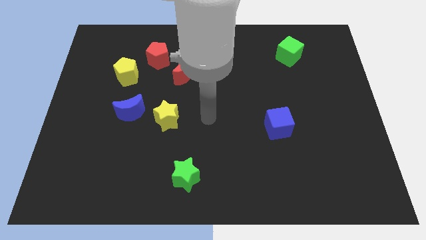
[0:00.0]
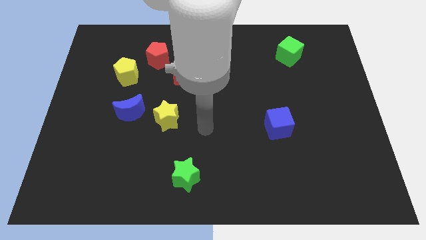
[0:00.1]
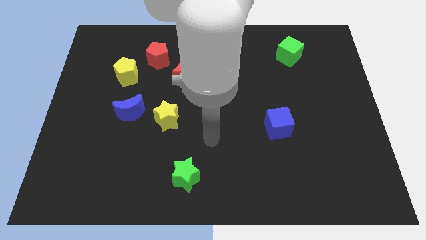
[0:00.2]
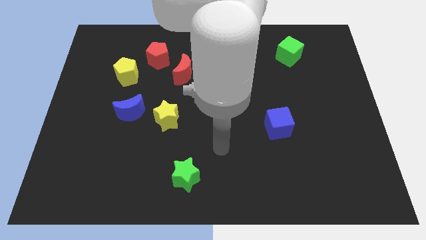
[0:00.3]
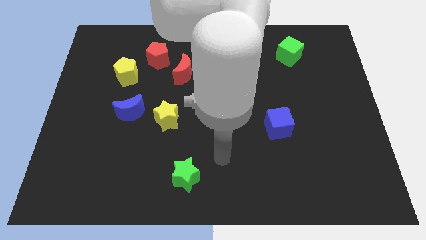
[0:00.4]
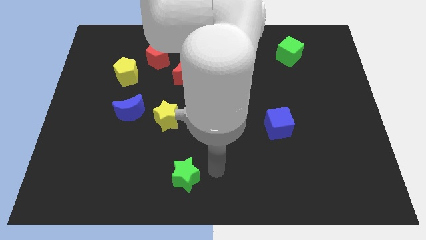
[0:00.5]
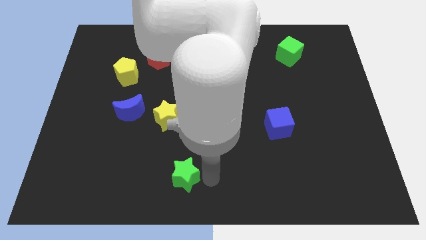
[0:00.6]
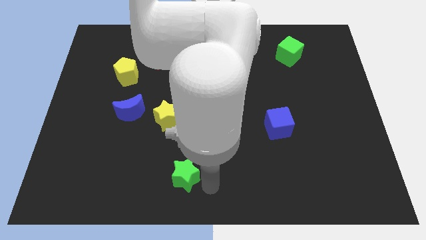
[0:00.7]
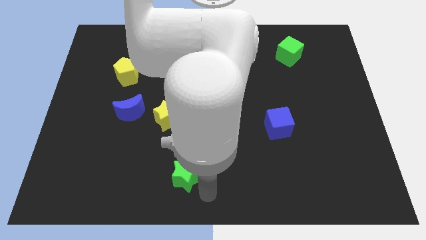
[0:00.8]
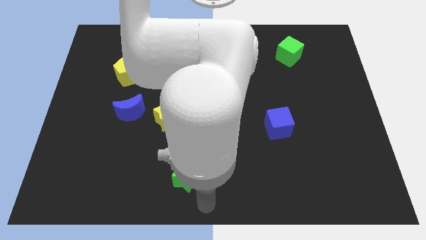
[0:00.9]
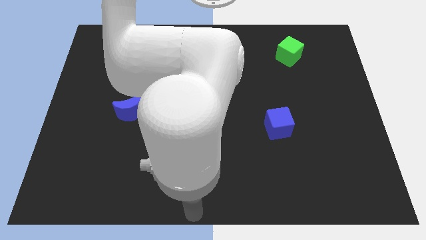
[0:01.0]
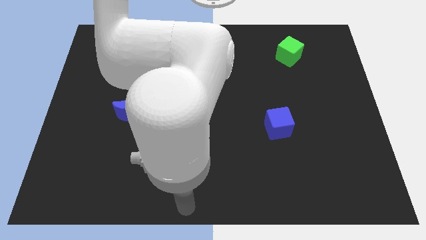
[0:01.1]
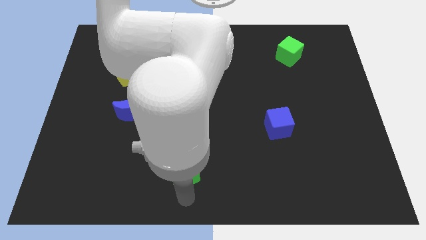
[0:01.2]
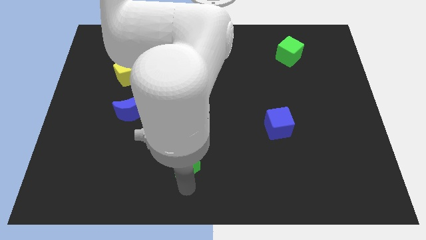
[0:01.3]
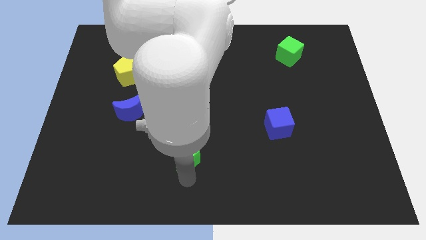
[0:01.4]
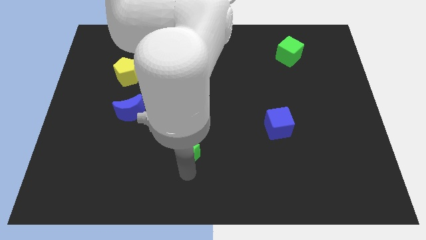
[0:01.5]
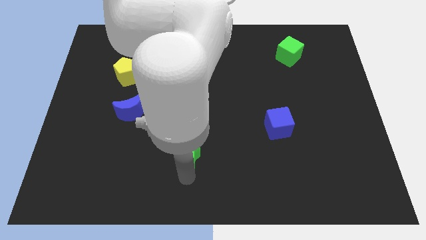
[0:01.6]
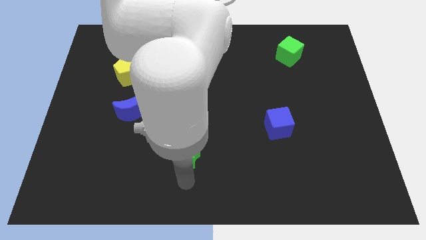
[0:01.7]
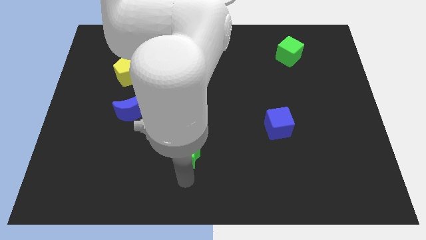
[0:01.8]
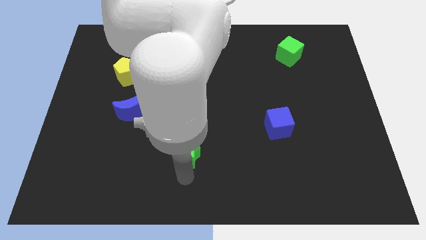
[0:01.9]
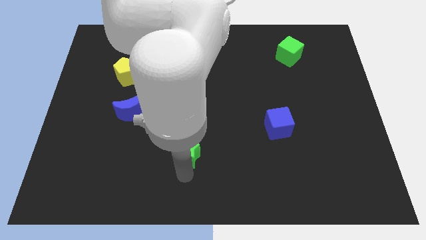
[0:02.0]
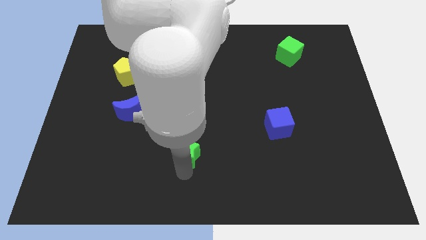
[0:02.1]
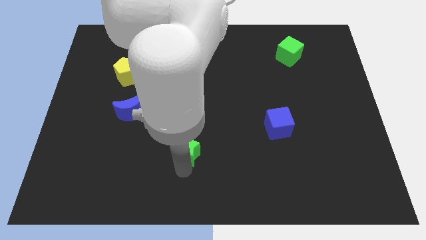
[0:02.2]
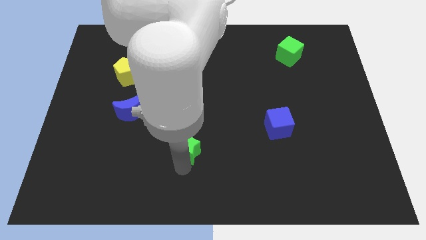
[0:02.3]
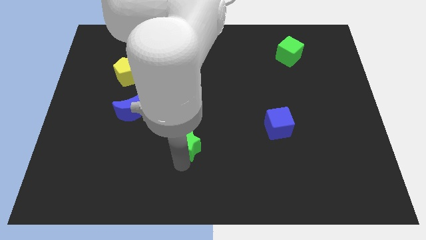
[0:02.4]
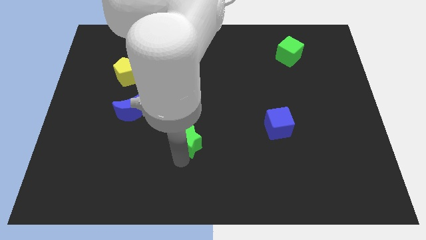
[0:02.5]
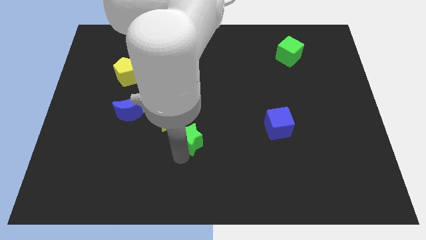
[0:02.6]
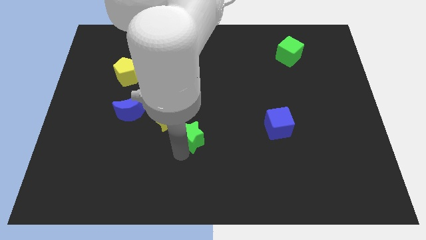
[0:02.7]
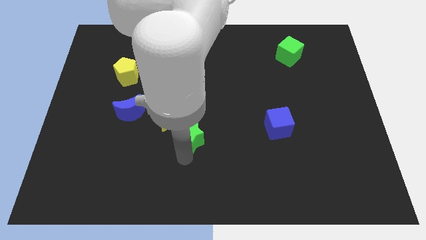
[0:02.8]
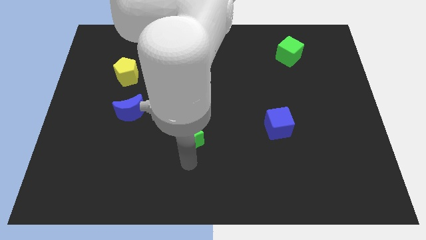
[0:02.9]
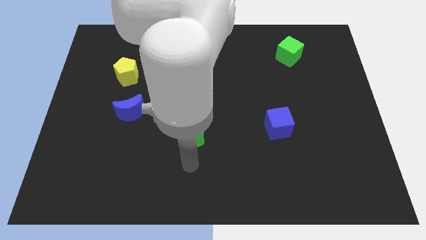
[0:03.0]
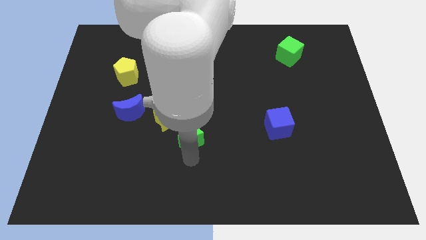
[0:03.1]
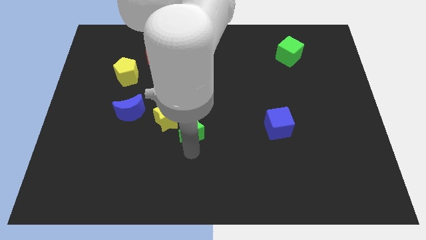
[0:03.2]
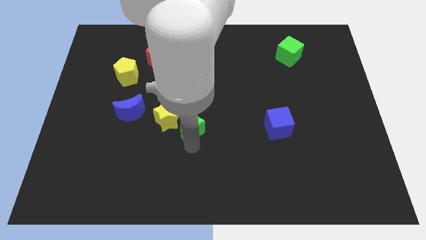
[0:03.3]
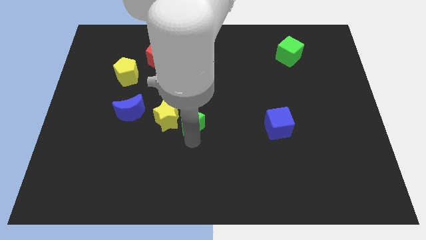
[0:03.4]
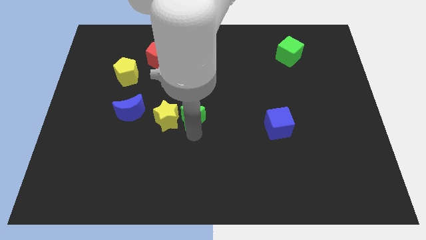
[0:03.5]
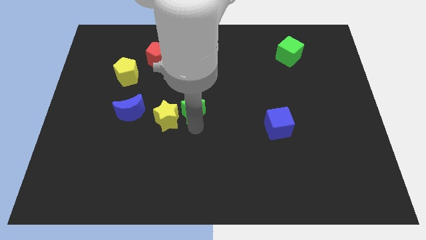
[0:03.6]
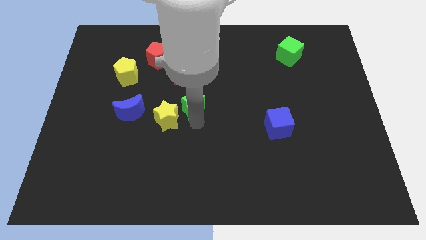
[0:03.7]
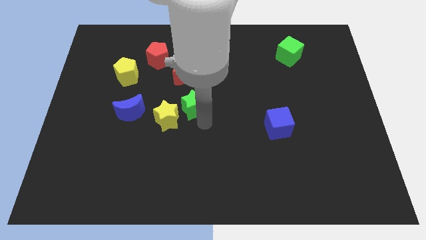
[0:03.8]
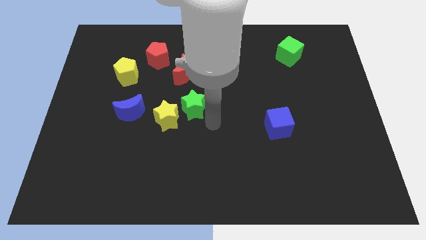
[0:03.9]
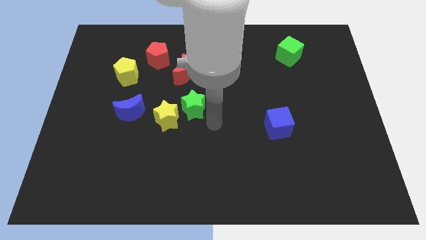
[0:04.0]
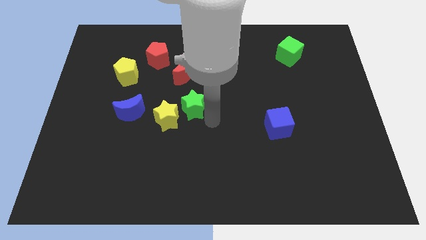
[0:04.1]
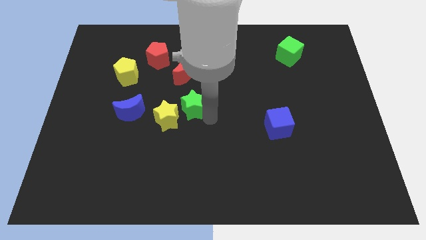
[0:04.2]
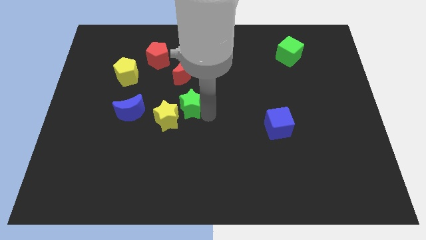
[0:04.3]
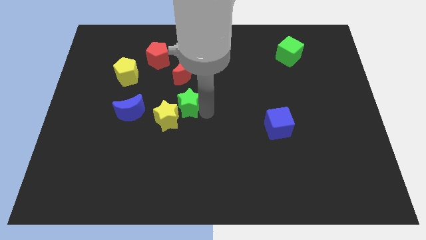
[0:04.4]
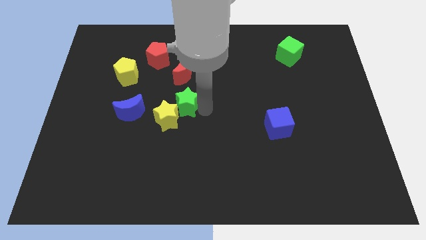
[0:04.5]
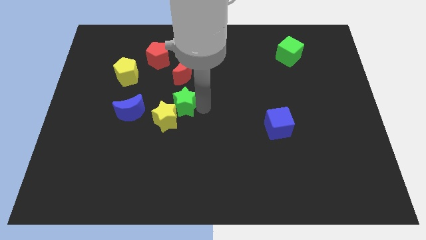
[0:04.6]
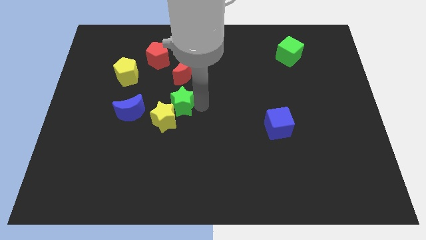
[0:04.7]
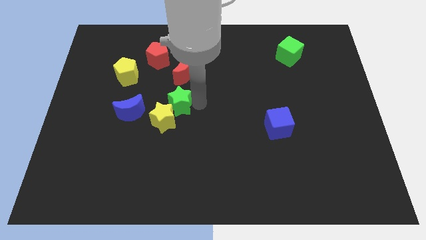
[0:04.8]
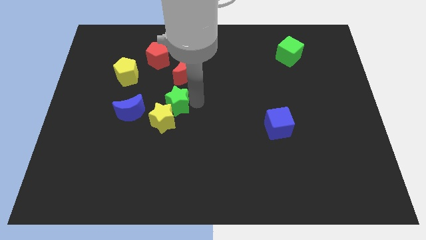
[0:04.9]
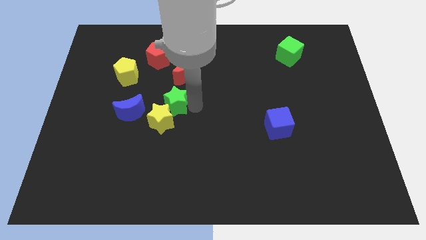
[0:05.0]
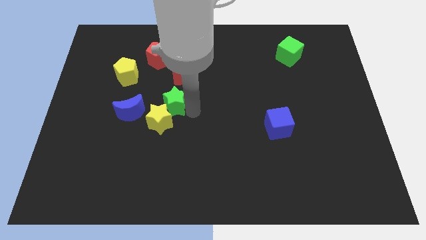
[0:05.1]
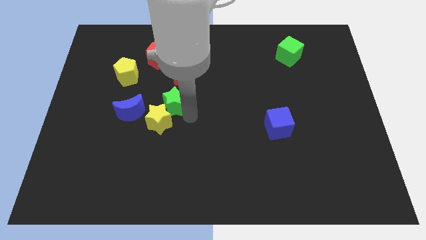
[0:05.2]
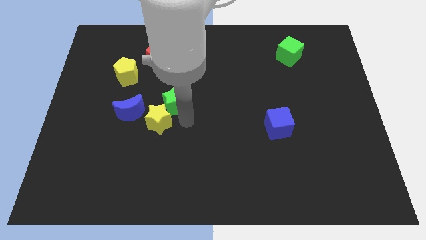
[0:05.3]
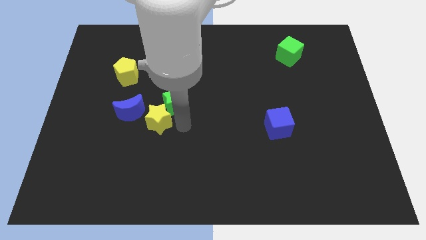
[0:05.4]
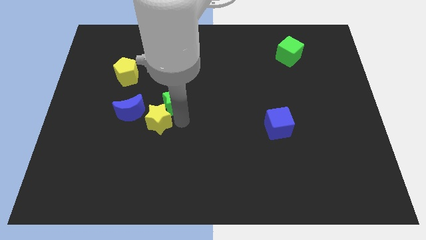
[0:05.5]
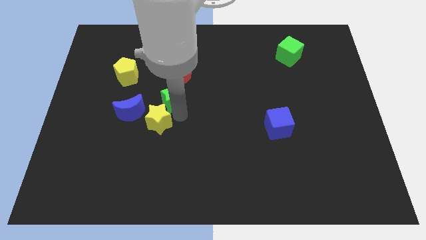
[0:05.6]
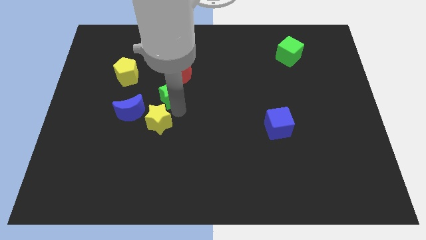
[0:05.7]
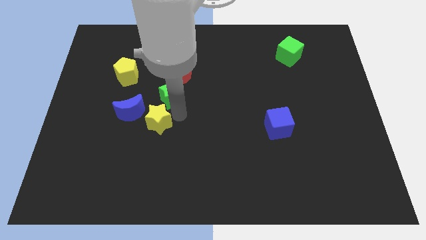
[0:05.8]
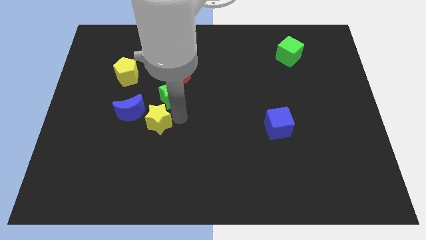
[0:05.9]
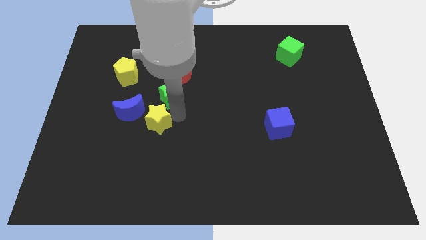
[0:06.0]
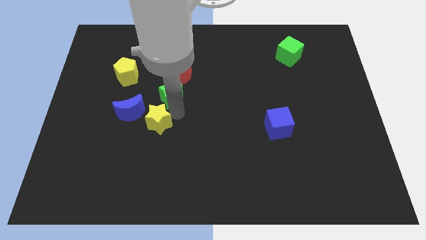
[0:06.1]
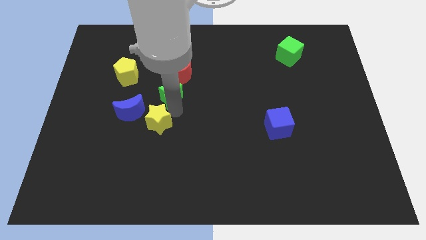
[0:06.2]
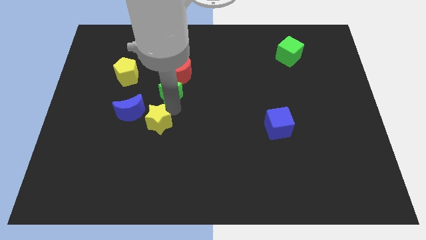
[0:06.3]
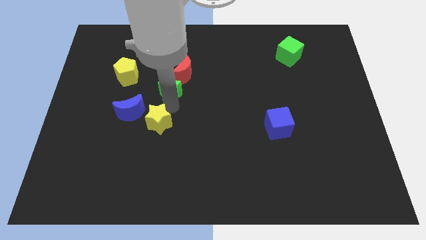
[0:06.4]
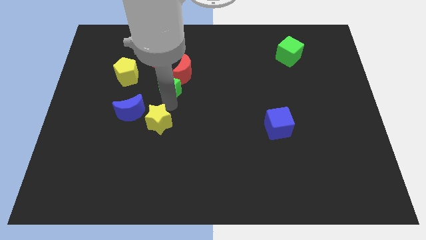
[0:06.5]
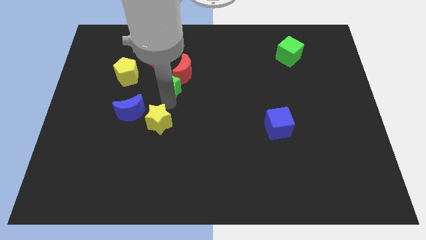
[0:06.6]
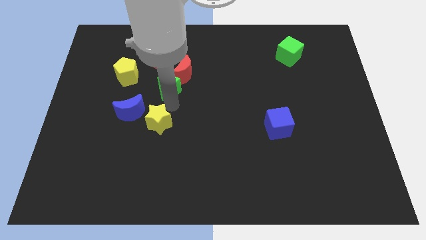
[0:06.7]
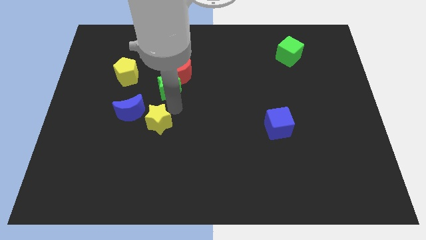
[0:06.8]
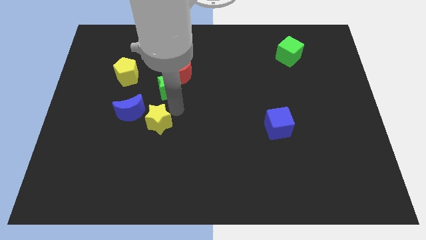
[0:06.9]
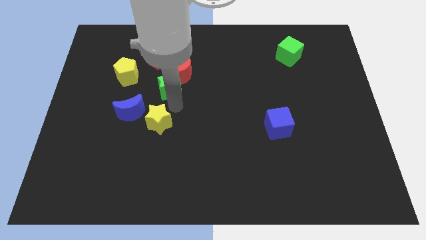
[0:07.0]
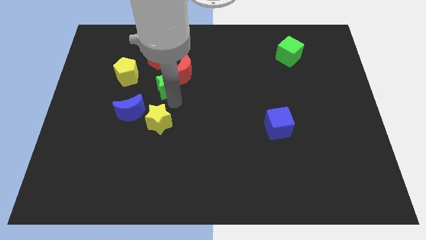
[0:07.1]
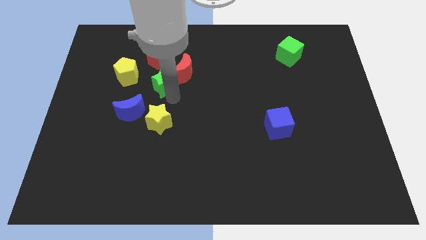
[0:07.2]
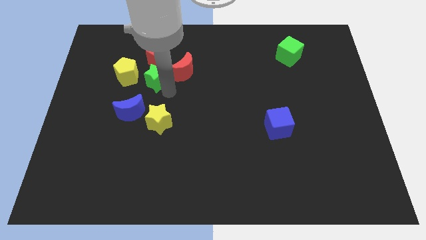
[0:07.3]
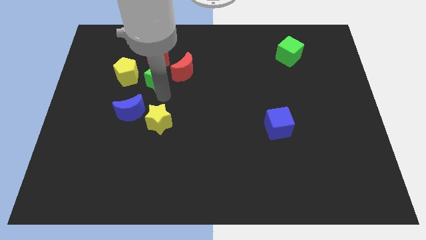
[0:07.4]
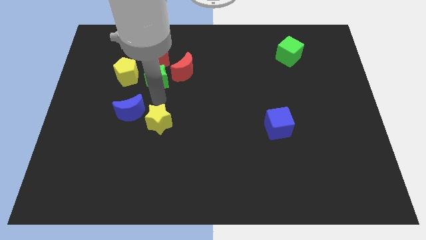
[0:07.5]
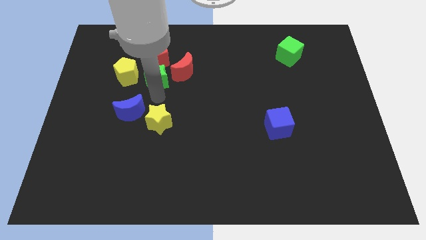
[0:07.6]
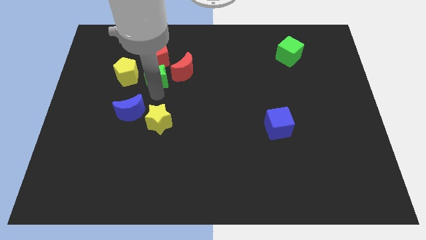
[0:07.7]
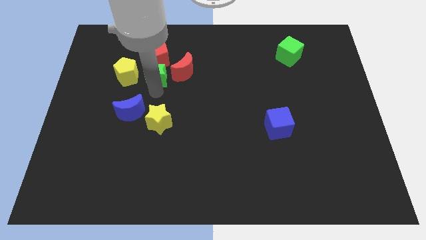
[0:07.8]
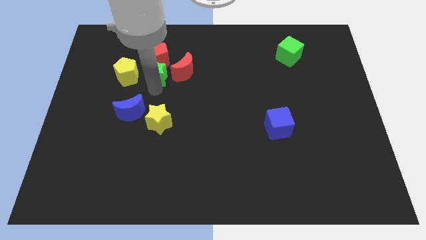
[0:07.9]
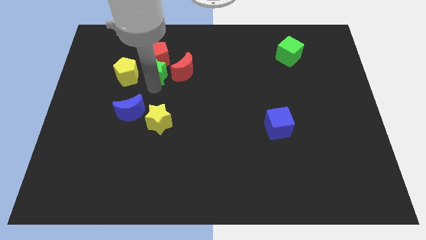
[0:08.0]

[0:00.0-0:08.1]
push the green star towards the red pentagon
